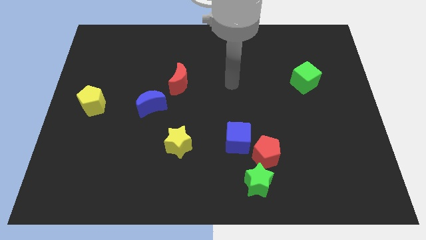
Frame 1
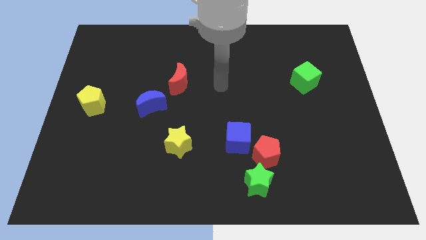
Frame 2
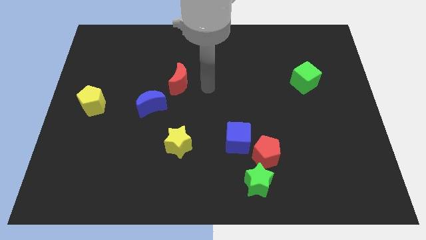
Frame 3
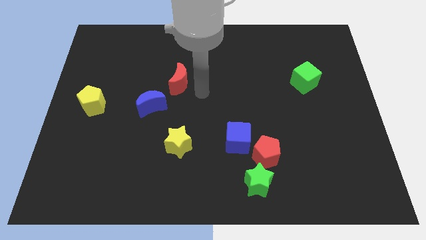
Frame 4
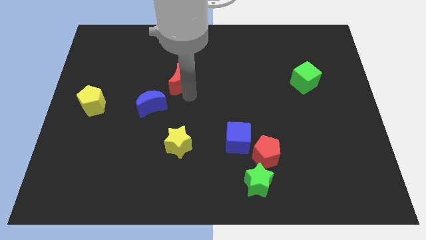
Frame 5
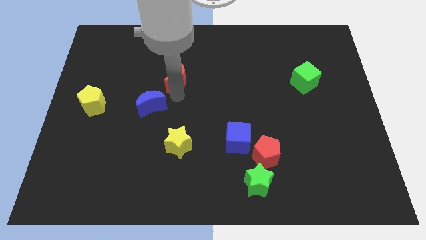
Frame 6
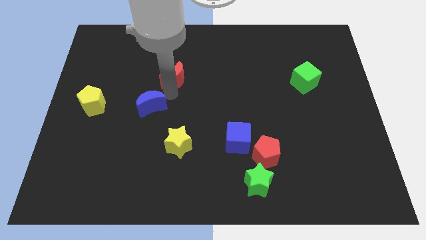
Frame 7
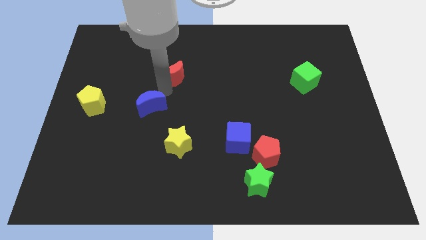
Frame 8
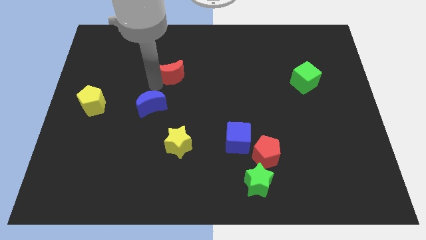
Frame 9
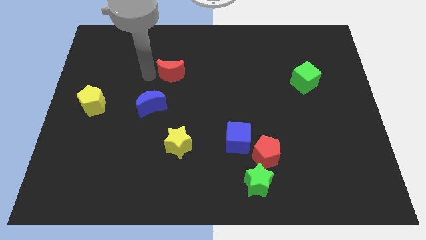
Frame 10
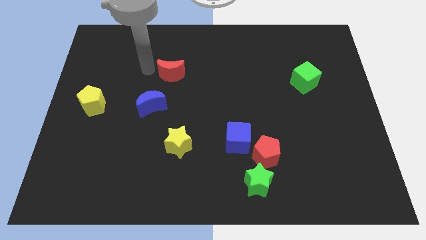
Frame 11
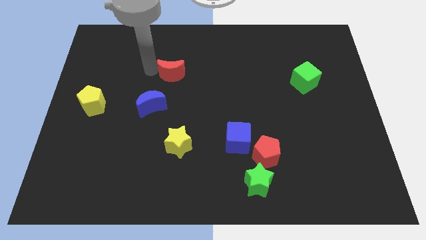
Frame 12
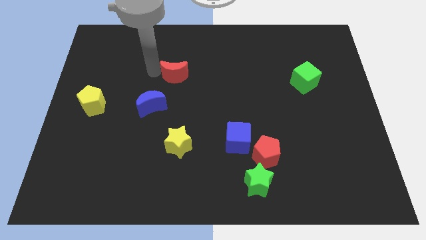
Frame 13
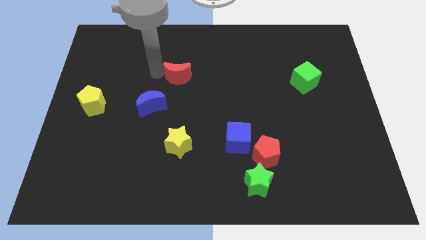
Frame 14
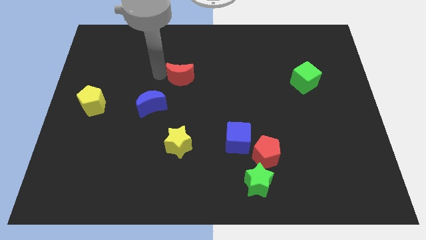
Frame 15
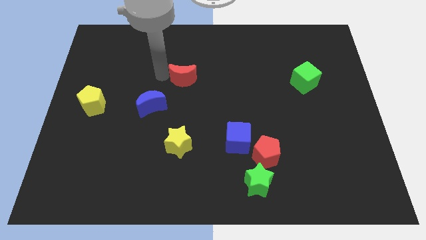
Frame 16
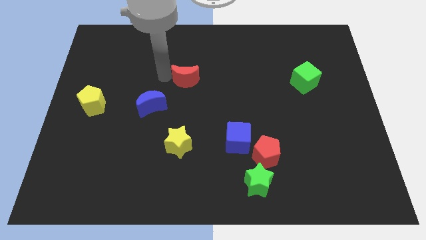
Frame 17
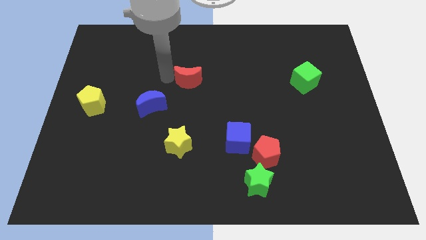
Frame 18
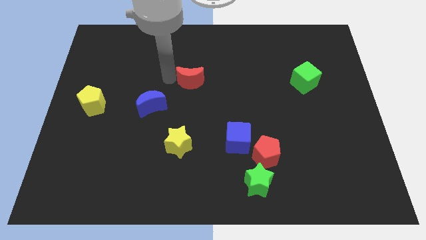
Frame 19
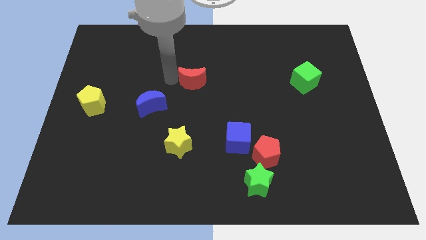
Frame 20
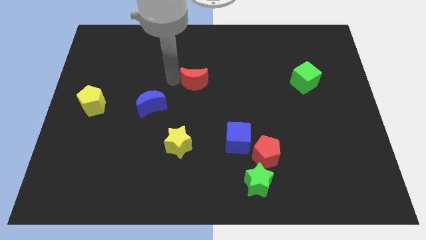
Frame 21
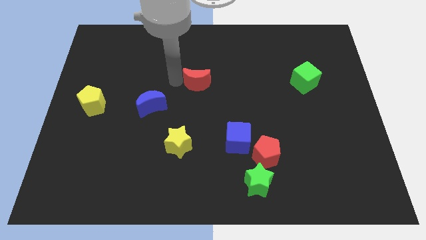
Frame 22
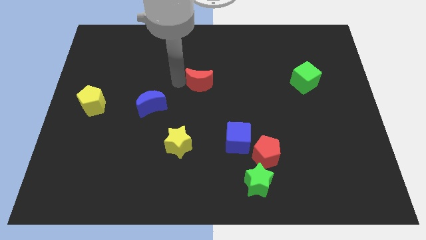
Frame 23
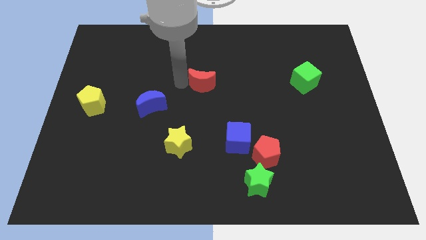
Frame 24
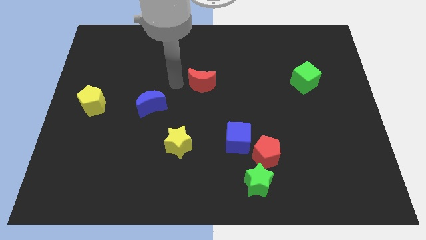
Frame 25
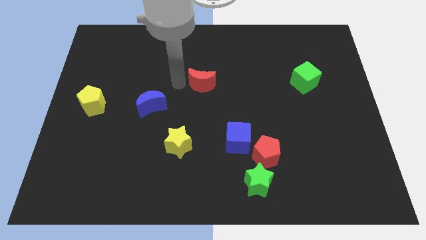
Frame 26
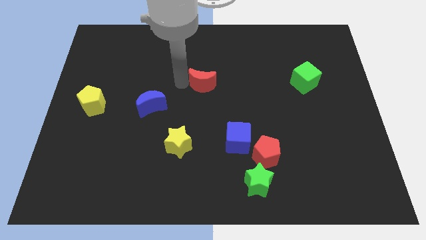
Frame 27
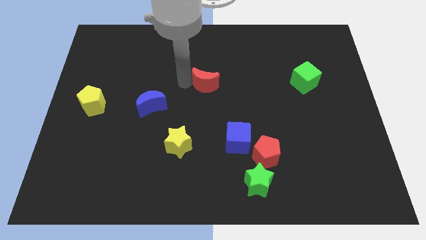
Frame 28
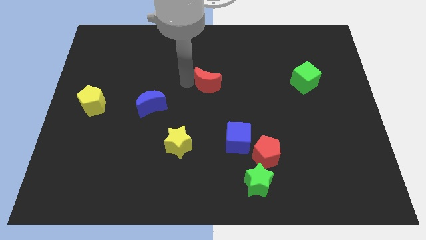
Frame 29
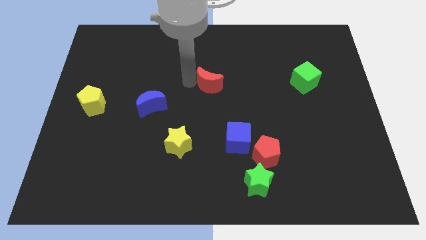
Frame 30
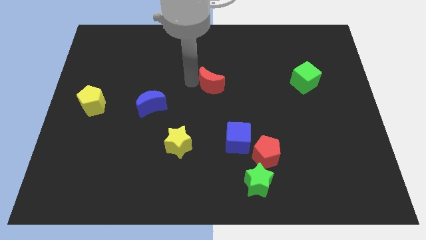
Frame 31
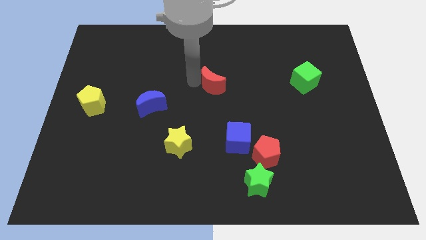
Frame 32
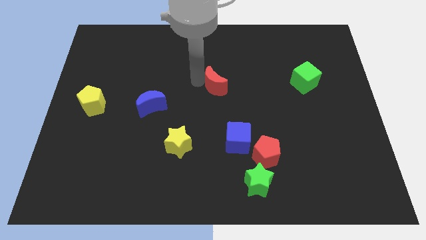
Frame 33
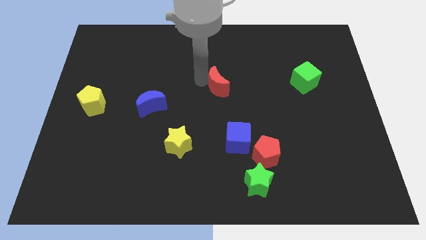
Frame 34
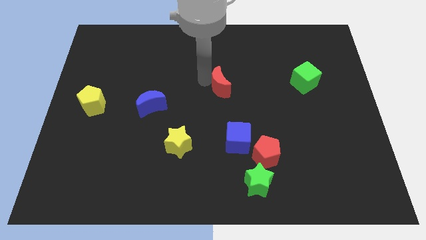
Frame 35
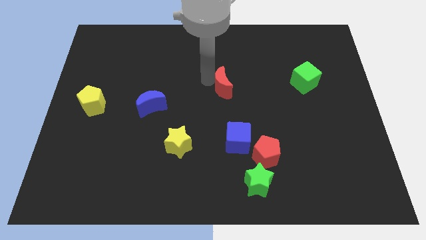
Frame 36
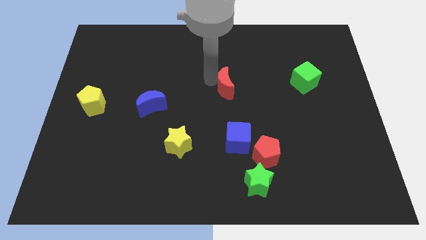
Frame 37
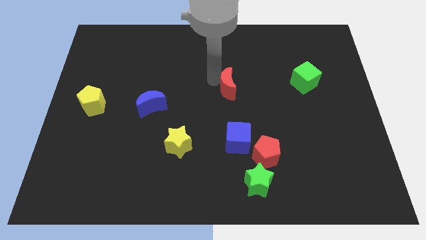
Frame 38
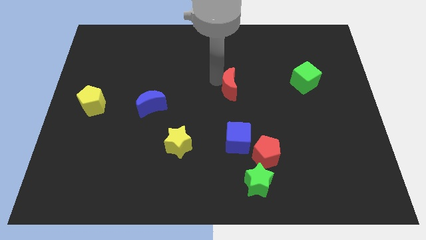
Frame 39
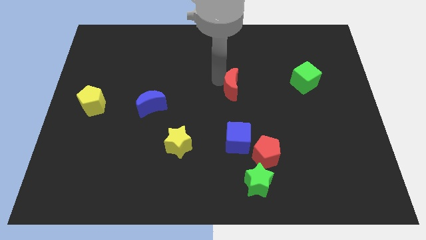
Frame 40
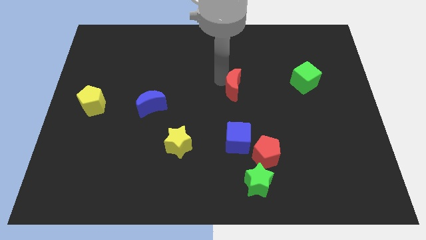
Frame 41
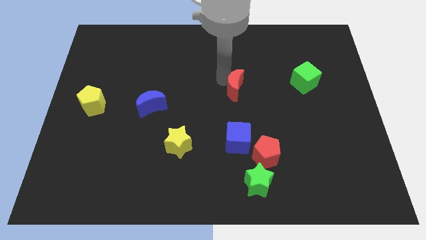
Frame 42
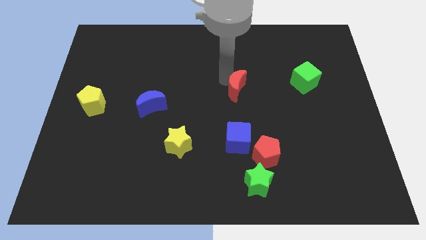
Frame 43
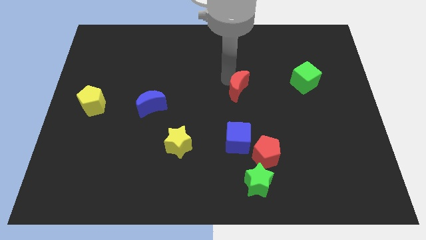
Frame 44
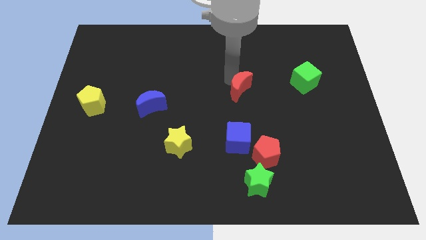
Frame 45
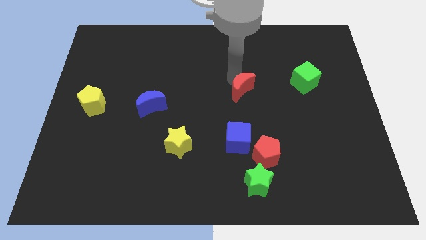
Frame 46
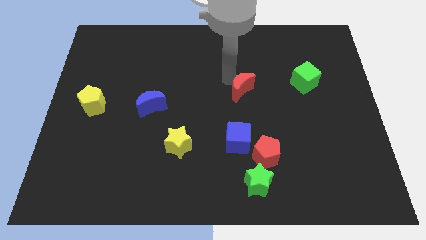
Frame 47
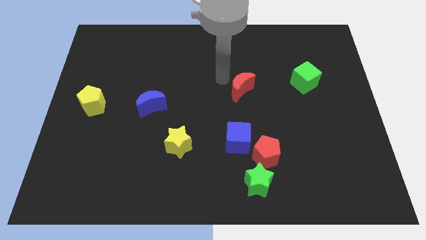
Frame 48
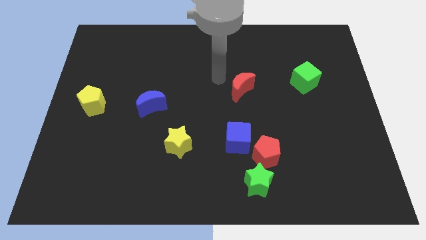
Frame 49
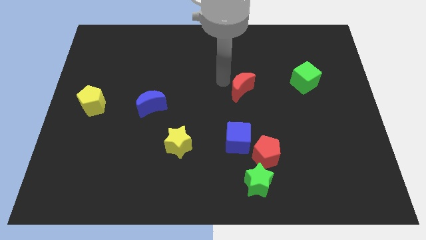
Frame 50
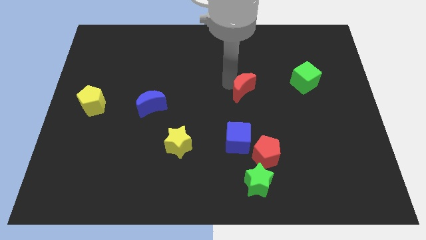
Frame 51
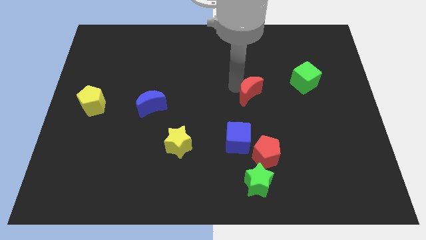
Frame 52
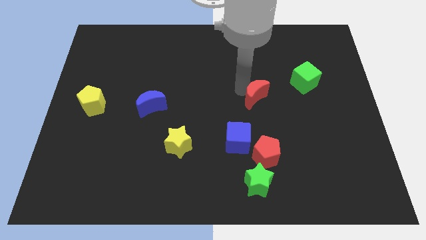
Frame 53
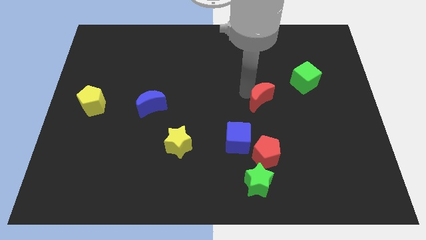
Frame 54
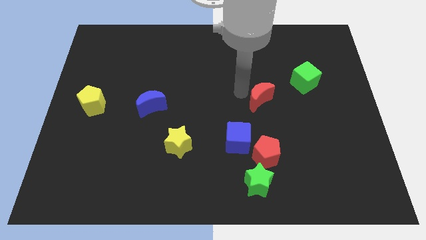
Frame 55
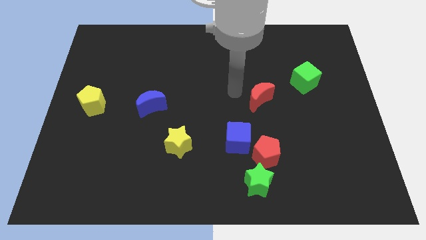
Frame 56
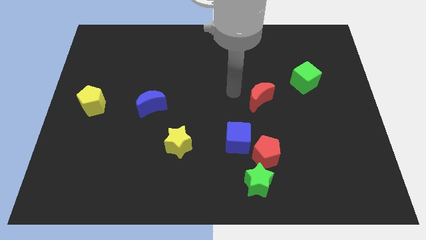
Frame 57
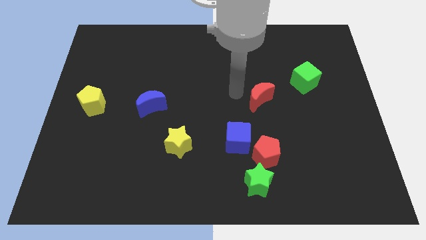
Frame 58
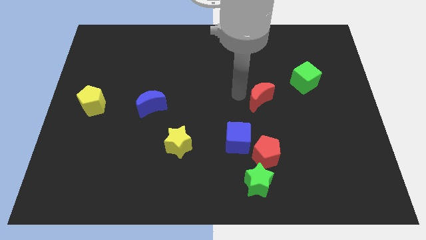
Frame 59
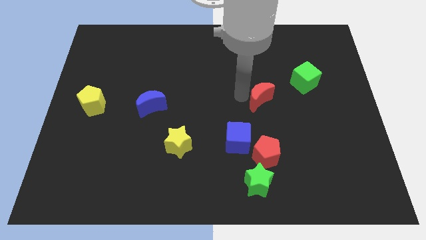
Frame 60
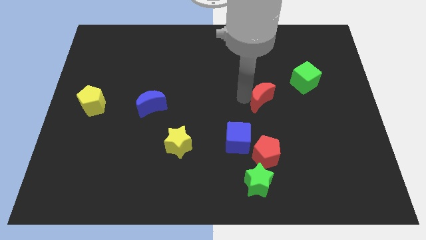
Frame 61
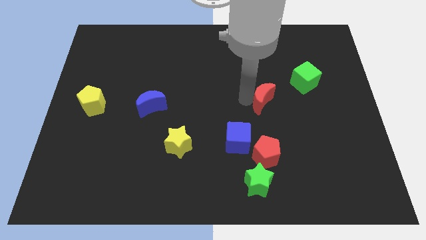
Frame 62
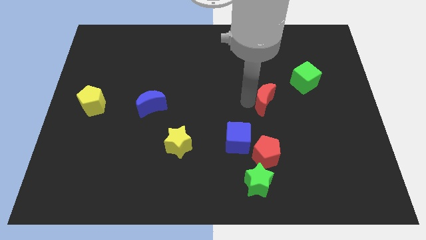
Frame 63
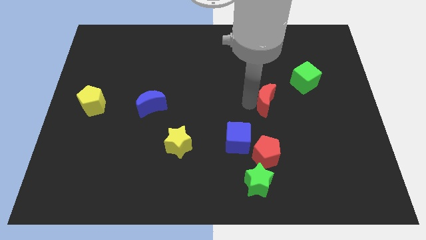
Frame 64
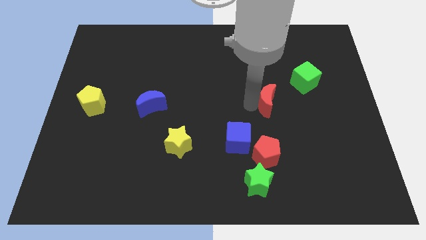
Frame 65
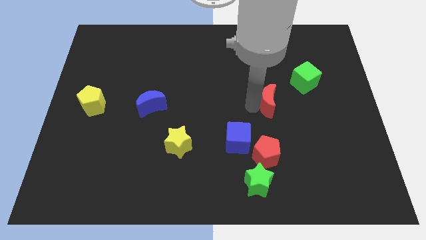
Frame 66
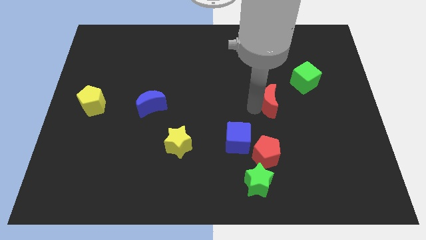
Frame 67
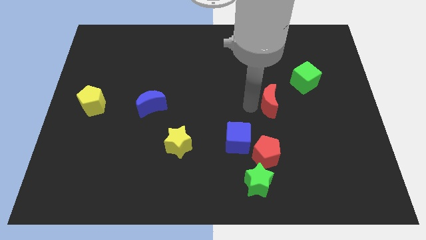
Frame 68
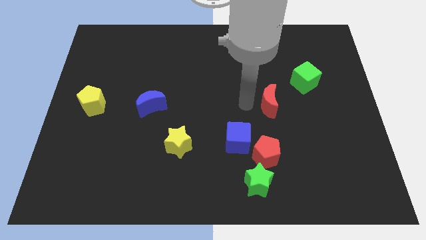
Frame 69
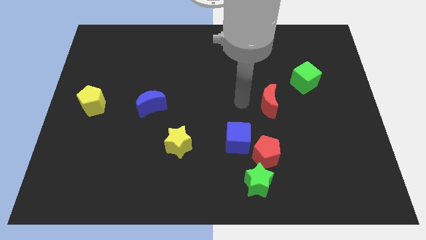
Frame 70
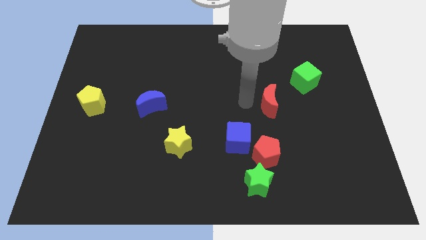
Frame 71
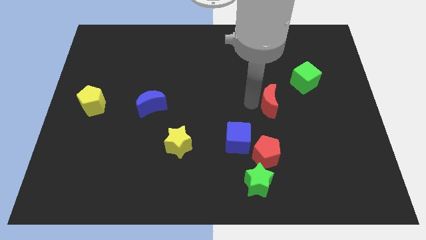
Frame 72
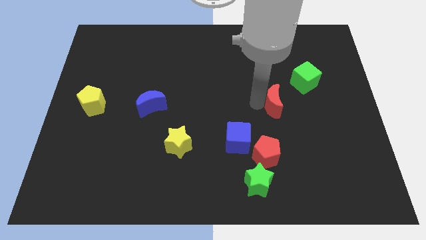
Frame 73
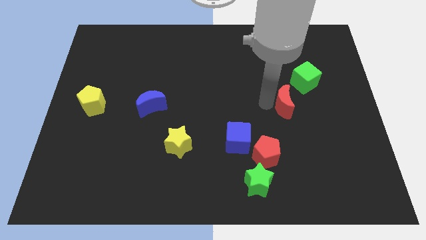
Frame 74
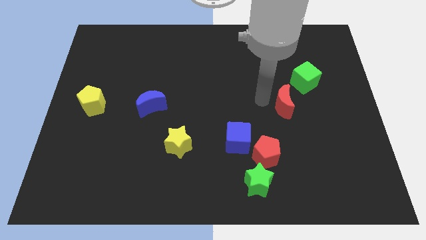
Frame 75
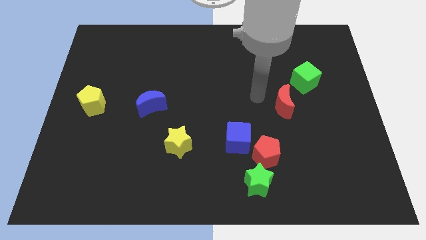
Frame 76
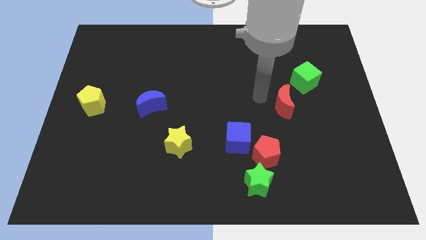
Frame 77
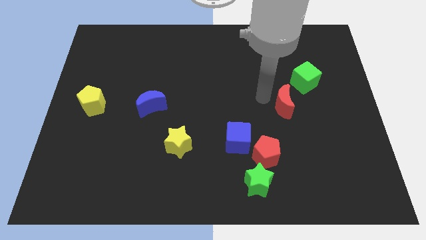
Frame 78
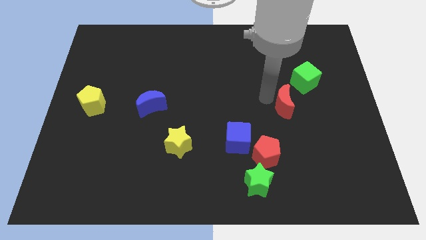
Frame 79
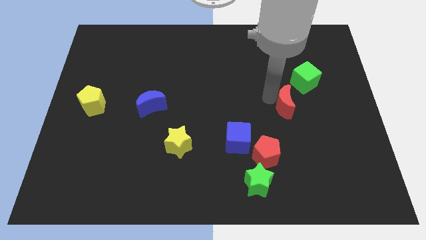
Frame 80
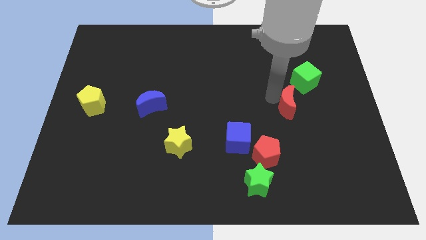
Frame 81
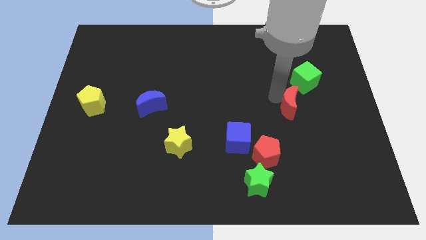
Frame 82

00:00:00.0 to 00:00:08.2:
move the red moon to the bottom side of the green cube
